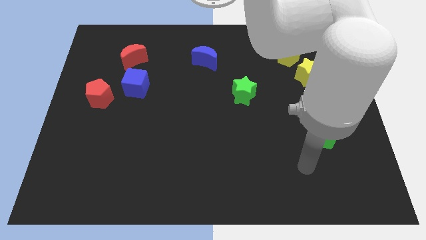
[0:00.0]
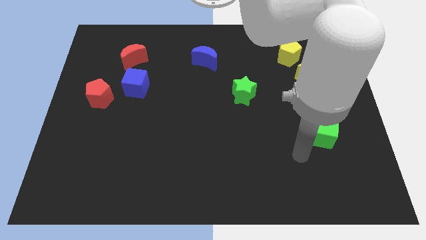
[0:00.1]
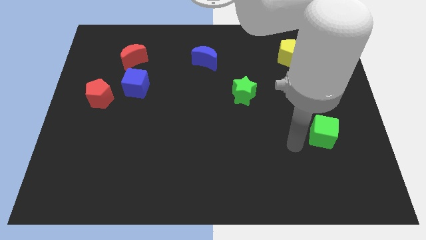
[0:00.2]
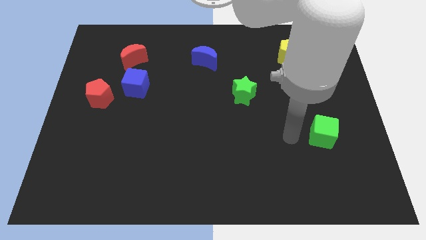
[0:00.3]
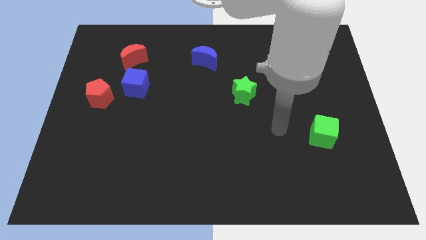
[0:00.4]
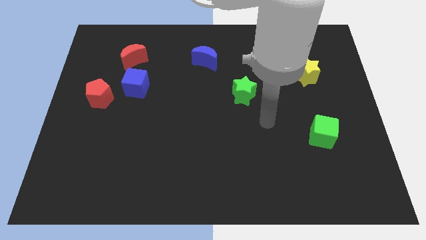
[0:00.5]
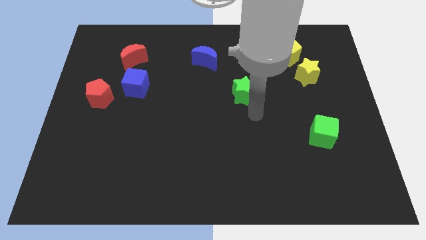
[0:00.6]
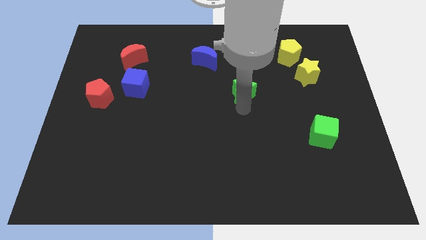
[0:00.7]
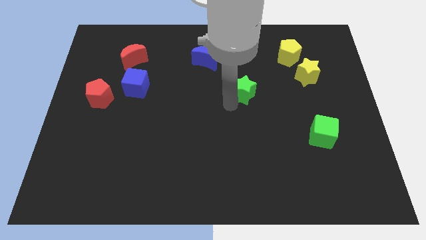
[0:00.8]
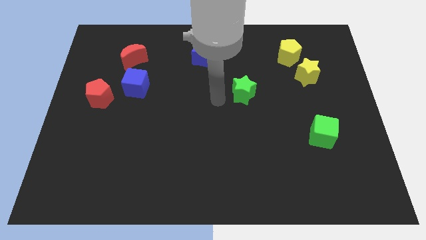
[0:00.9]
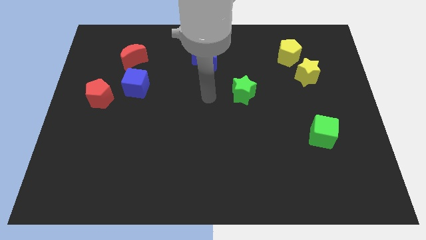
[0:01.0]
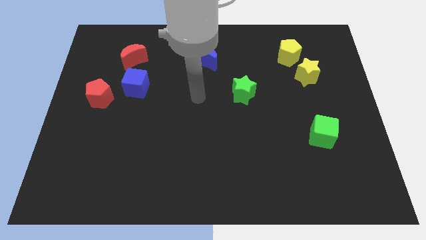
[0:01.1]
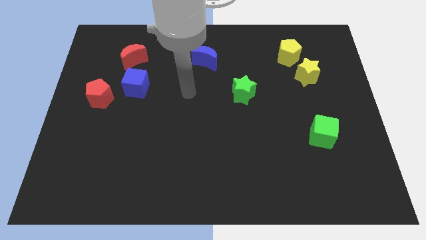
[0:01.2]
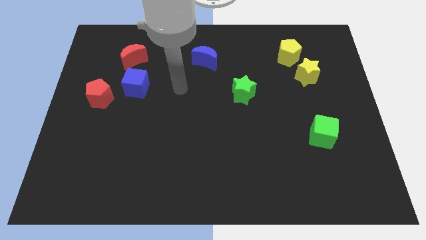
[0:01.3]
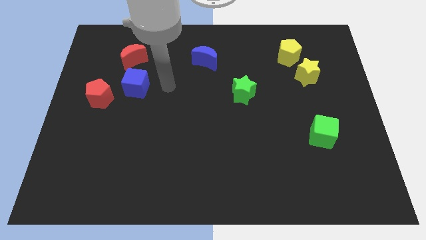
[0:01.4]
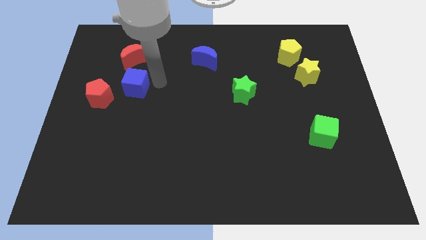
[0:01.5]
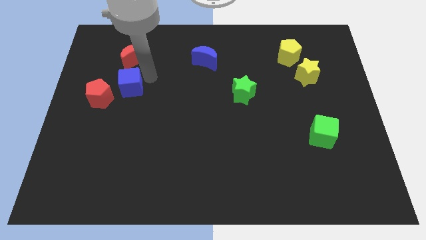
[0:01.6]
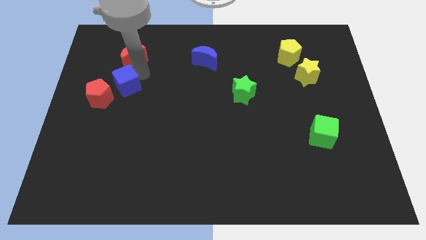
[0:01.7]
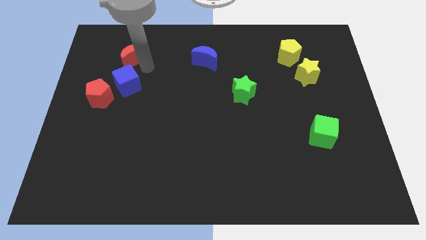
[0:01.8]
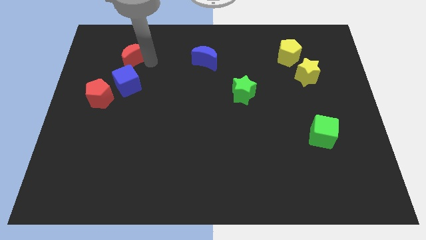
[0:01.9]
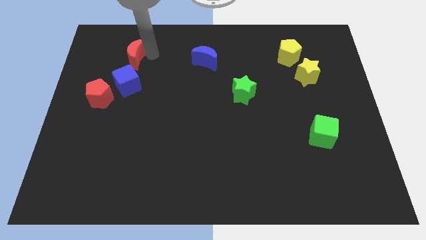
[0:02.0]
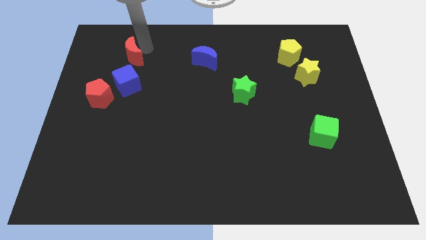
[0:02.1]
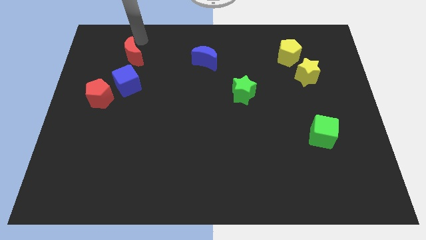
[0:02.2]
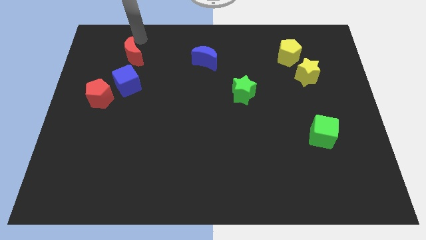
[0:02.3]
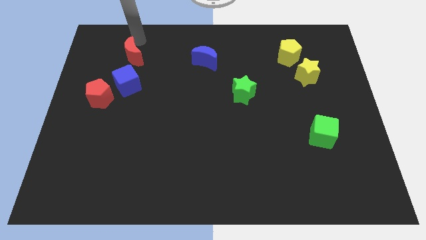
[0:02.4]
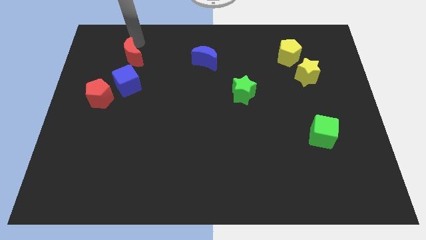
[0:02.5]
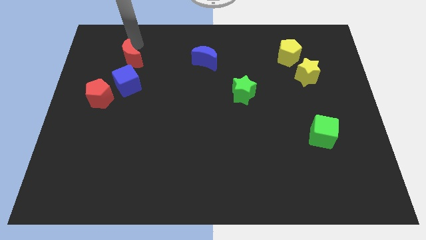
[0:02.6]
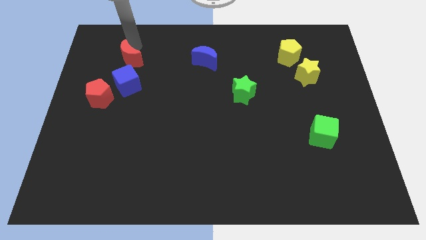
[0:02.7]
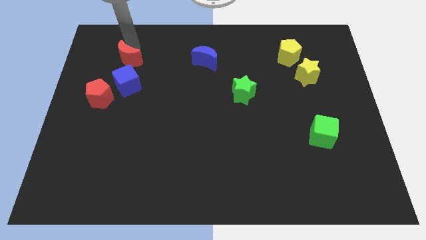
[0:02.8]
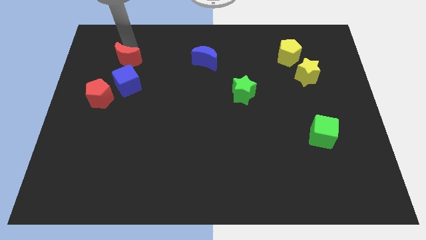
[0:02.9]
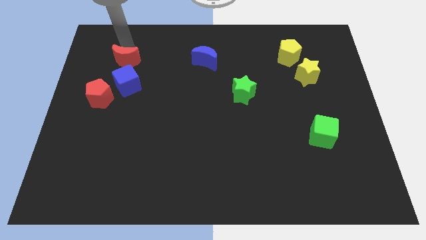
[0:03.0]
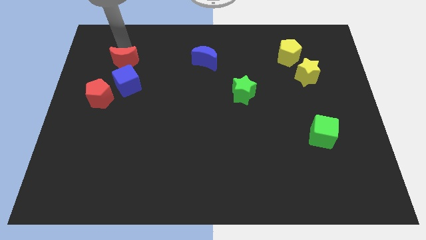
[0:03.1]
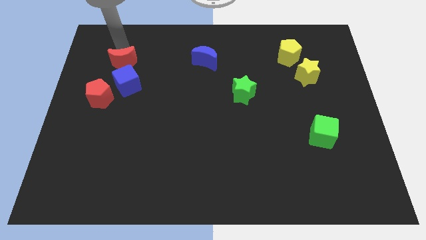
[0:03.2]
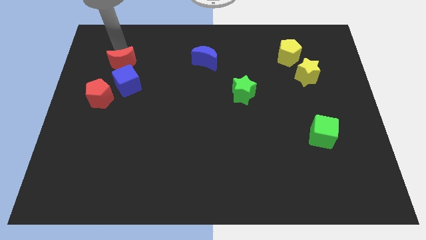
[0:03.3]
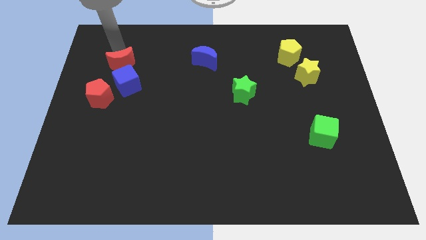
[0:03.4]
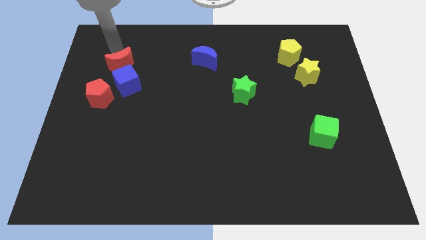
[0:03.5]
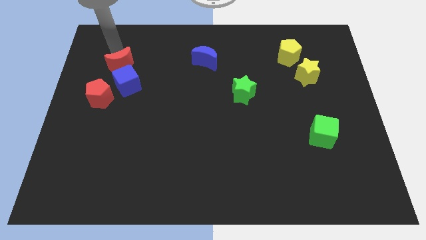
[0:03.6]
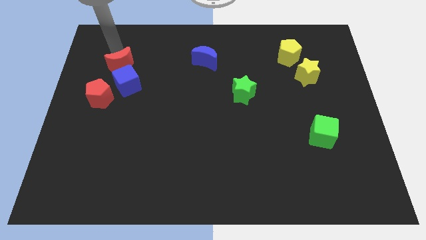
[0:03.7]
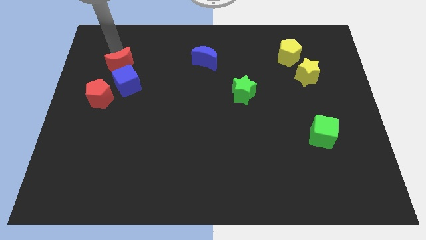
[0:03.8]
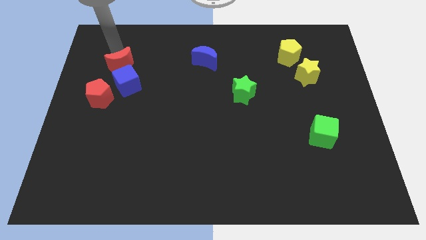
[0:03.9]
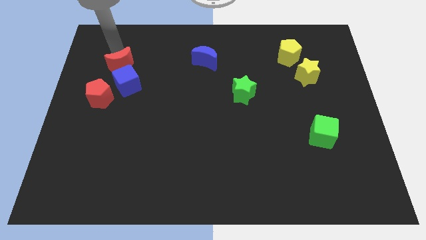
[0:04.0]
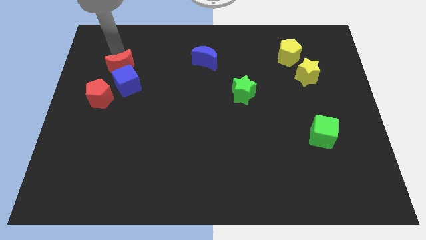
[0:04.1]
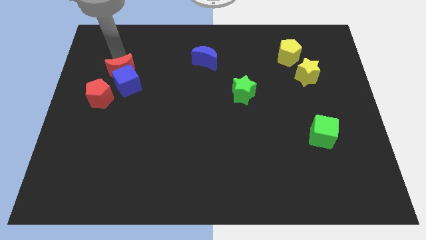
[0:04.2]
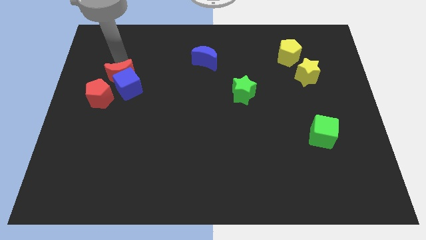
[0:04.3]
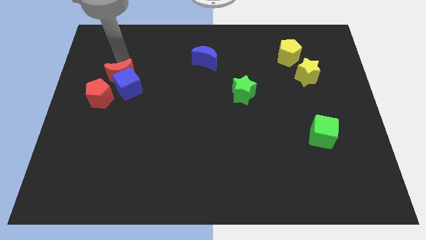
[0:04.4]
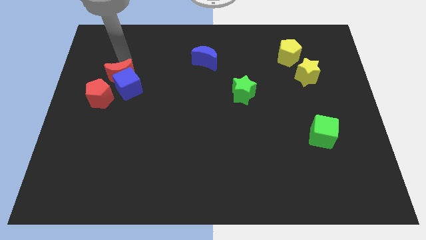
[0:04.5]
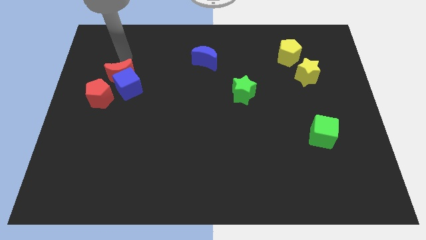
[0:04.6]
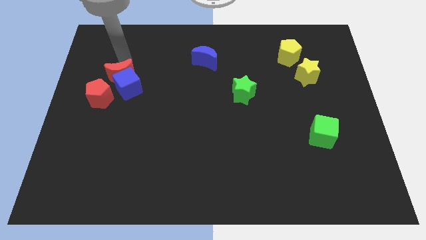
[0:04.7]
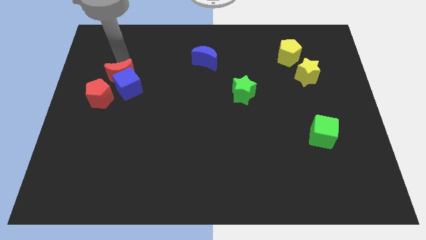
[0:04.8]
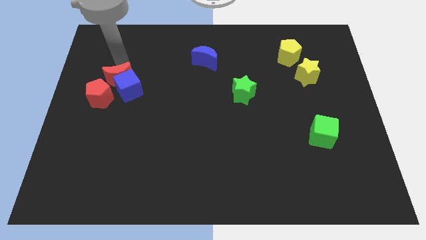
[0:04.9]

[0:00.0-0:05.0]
slide the red moon down somewhat

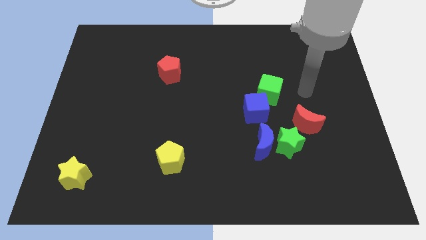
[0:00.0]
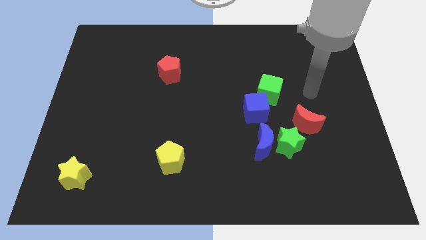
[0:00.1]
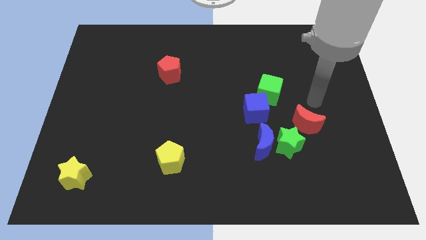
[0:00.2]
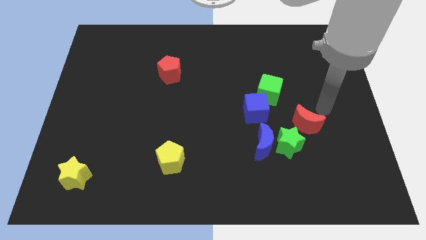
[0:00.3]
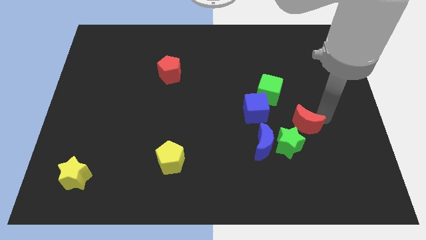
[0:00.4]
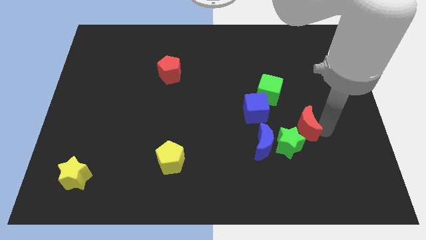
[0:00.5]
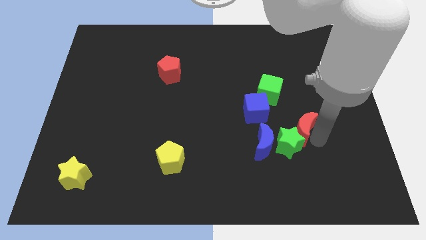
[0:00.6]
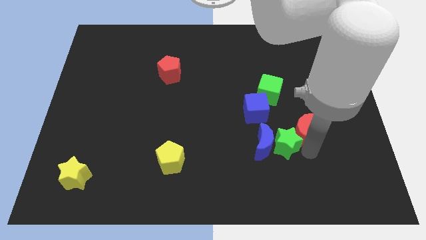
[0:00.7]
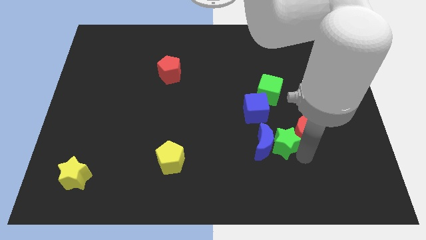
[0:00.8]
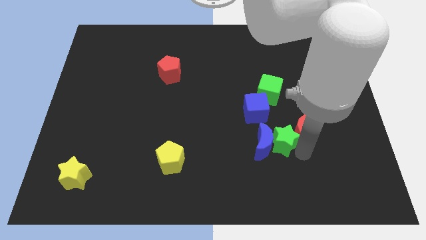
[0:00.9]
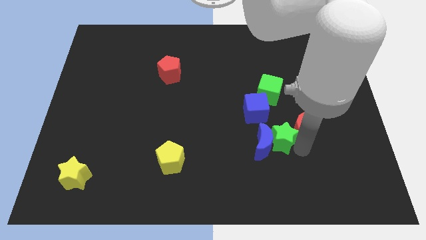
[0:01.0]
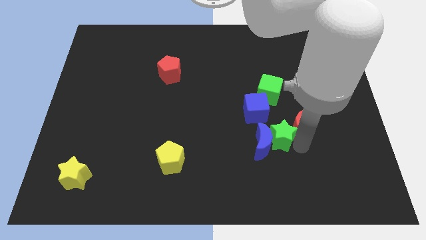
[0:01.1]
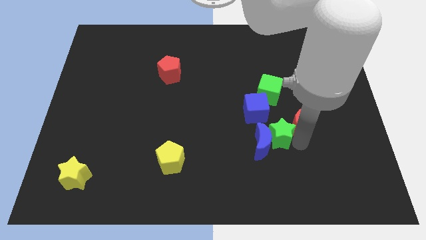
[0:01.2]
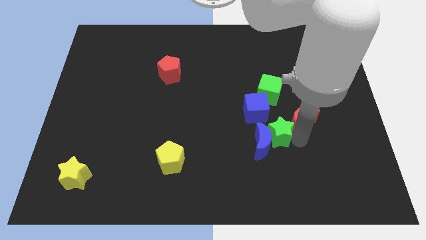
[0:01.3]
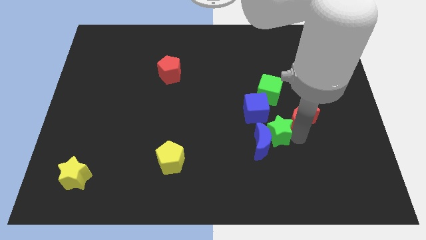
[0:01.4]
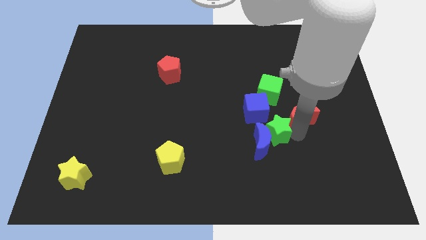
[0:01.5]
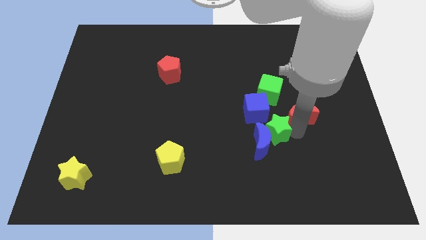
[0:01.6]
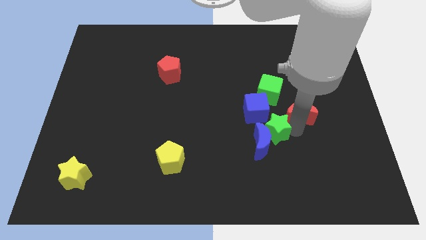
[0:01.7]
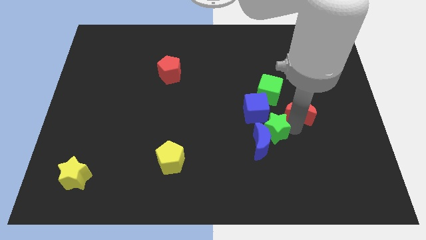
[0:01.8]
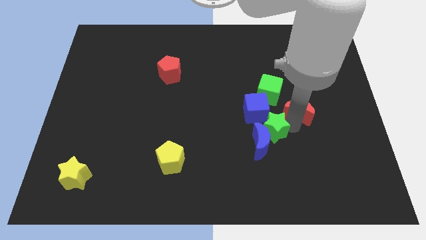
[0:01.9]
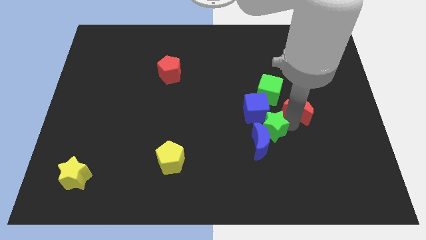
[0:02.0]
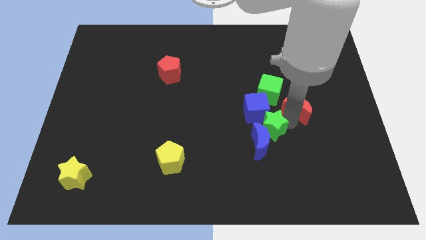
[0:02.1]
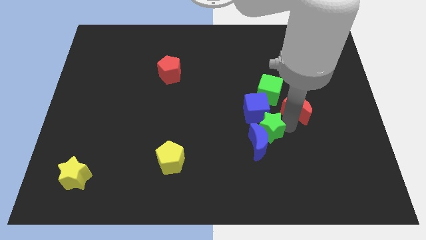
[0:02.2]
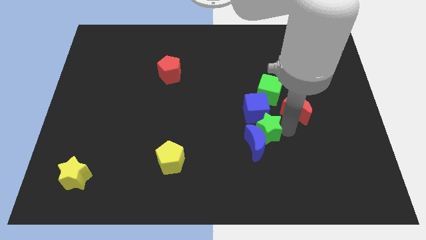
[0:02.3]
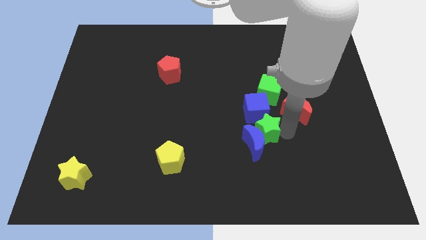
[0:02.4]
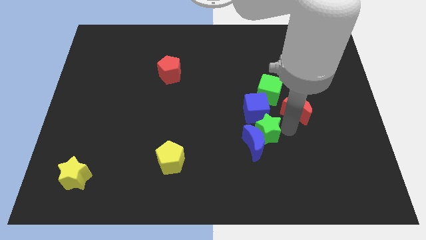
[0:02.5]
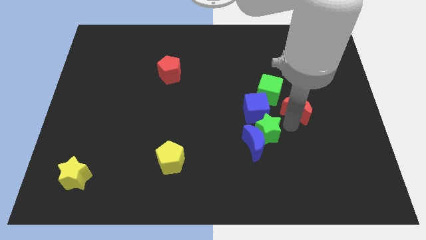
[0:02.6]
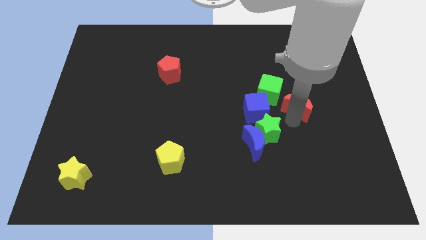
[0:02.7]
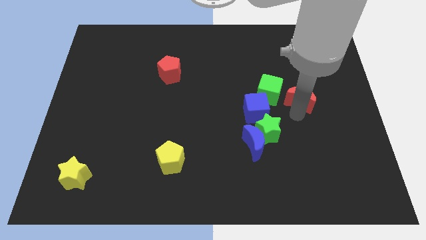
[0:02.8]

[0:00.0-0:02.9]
move the red moon up a little

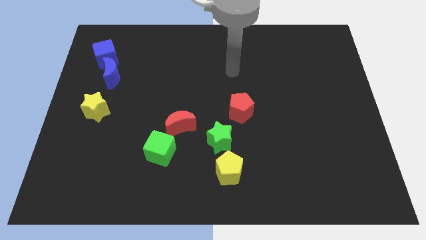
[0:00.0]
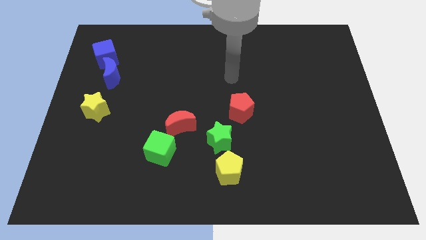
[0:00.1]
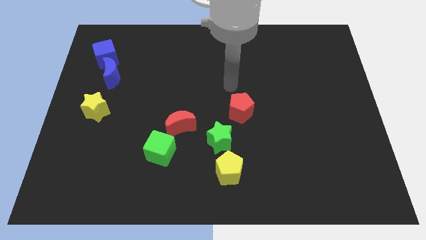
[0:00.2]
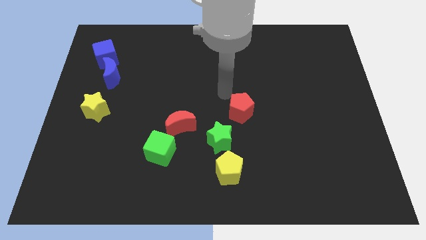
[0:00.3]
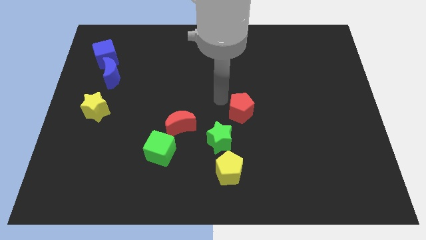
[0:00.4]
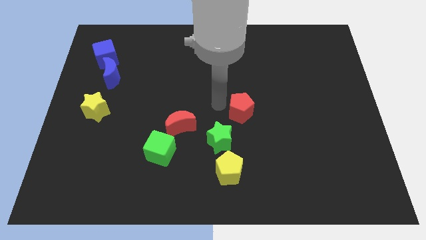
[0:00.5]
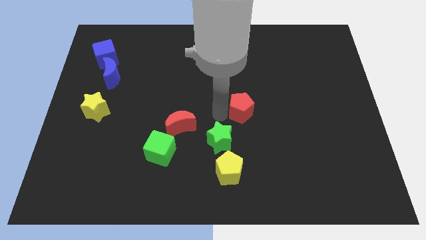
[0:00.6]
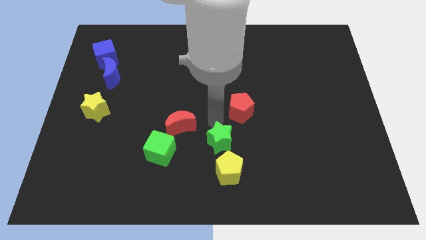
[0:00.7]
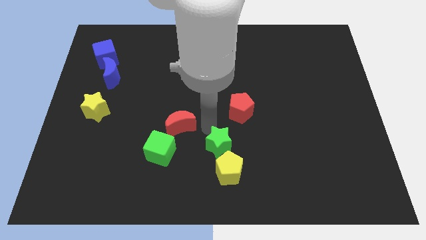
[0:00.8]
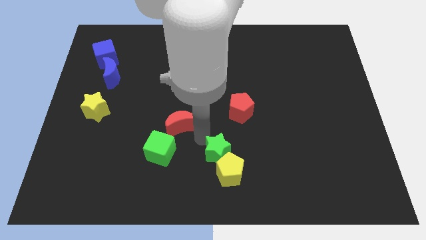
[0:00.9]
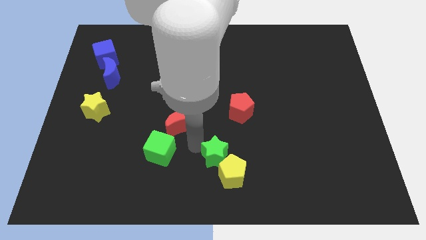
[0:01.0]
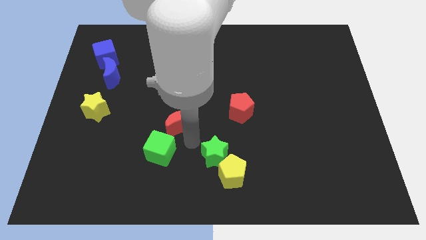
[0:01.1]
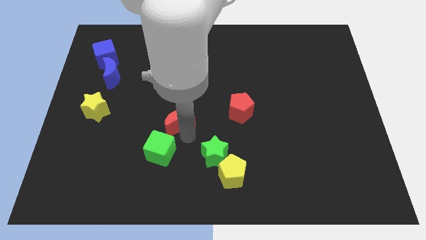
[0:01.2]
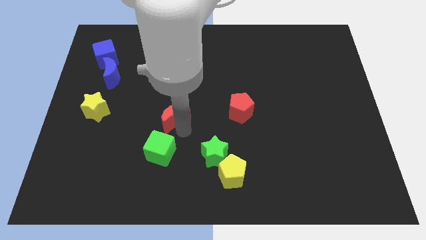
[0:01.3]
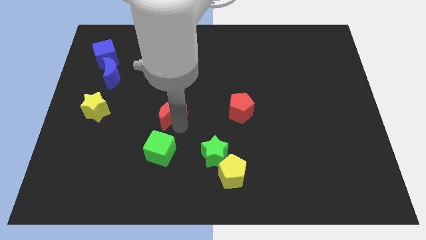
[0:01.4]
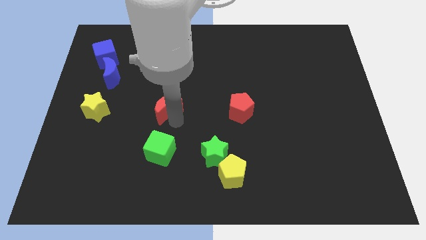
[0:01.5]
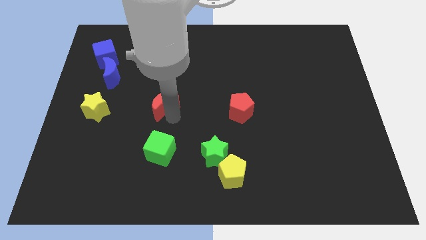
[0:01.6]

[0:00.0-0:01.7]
slightly move the red moon upwards and left
